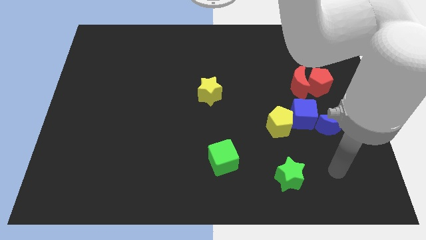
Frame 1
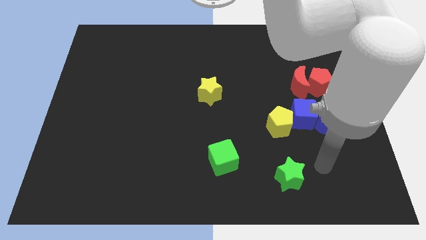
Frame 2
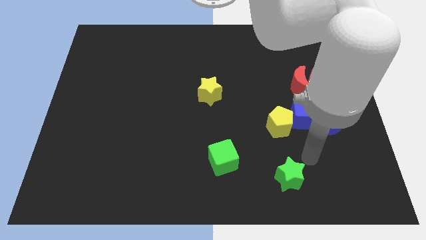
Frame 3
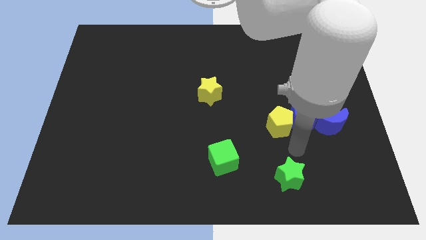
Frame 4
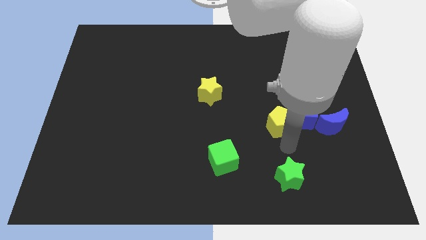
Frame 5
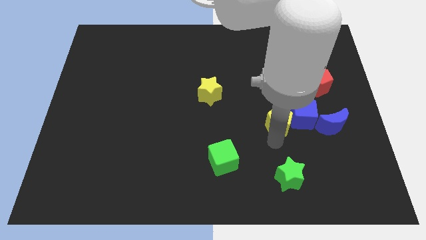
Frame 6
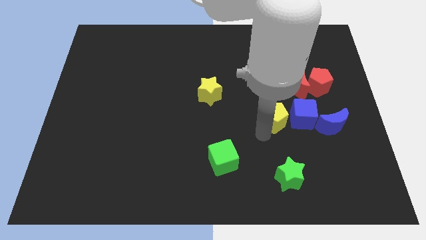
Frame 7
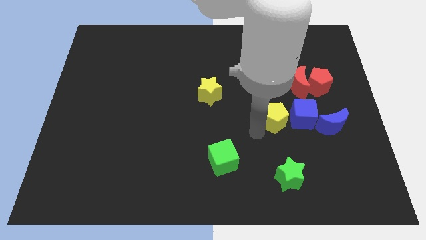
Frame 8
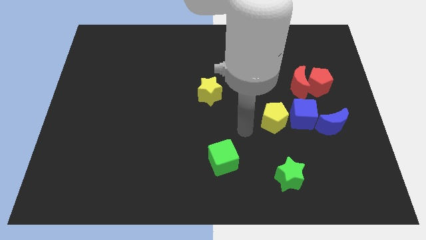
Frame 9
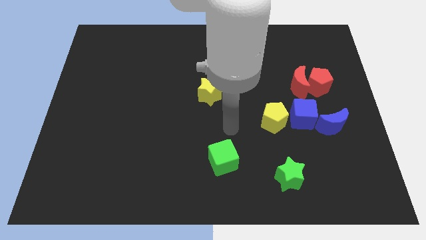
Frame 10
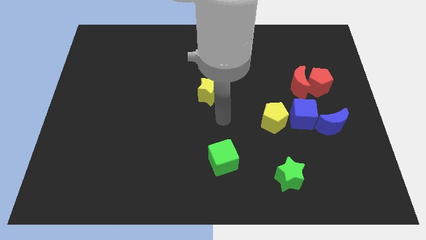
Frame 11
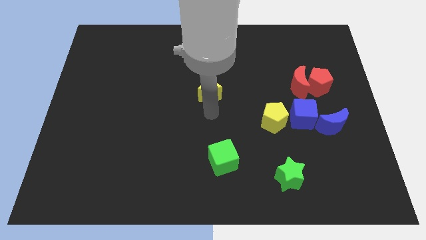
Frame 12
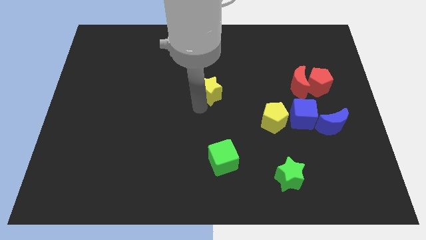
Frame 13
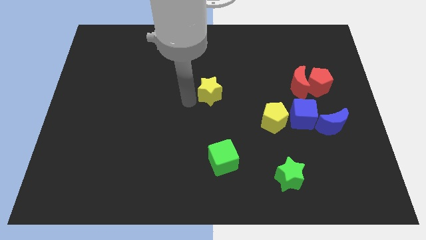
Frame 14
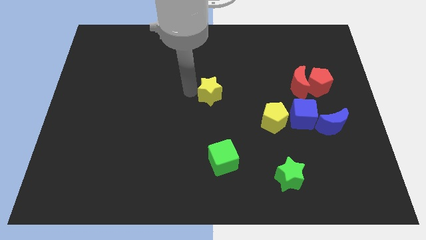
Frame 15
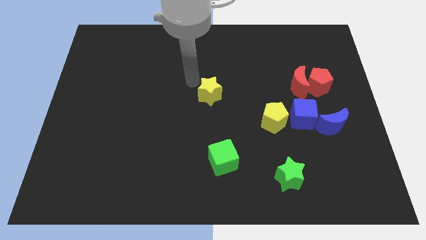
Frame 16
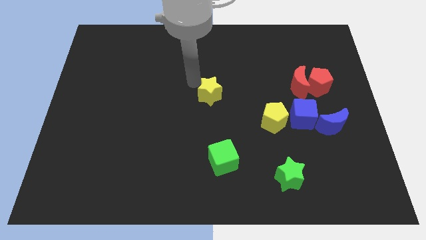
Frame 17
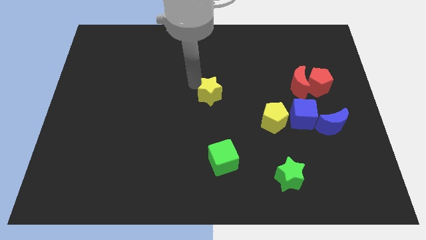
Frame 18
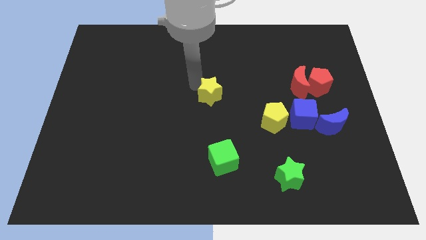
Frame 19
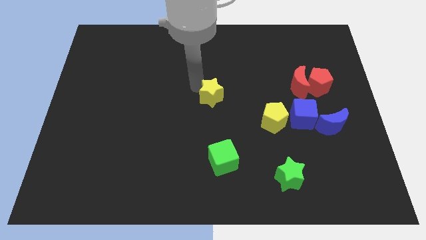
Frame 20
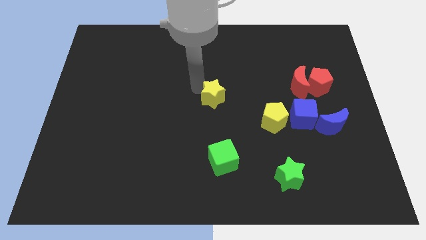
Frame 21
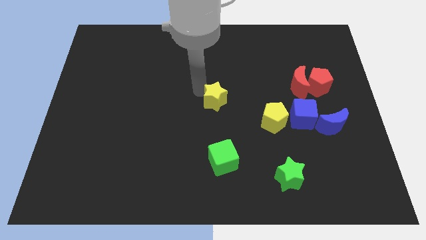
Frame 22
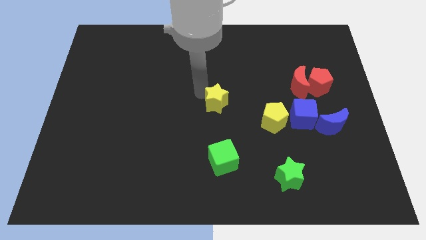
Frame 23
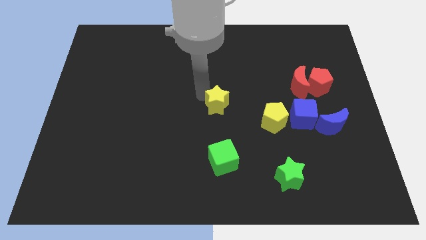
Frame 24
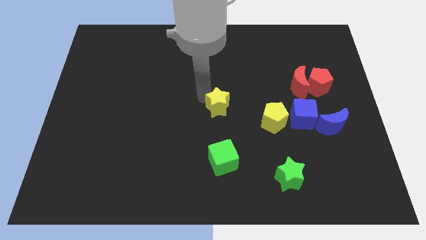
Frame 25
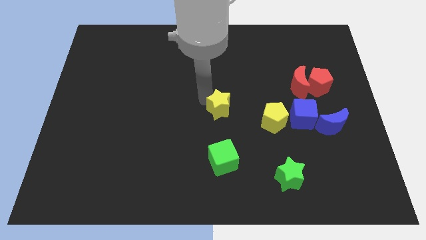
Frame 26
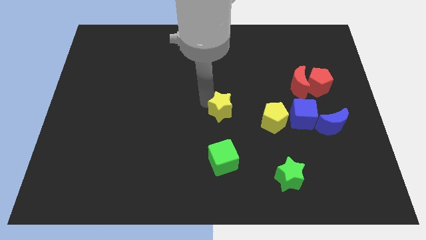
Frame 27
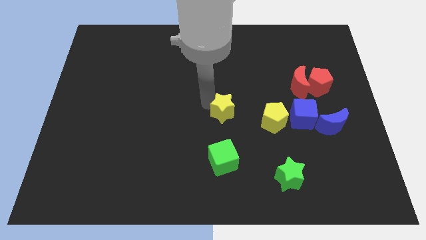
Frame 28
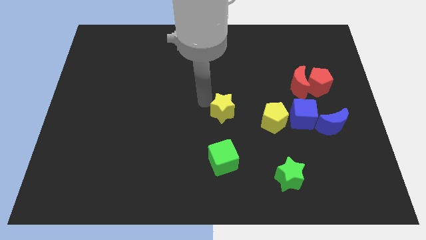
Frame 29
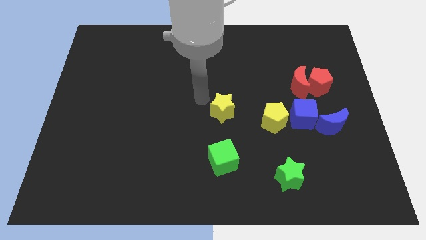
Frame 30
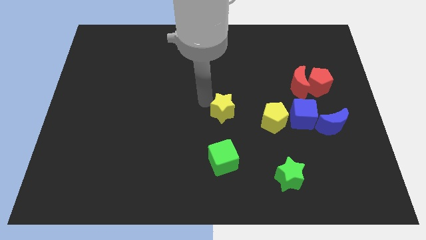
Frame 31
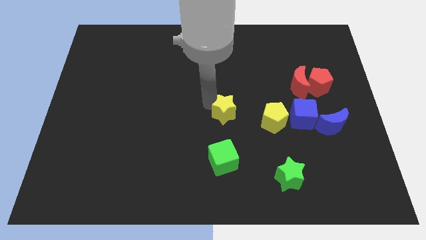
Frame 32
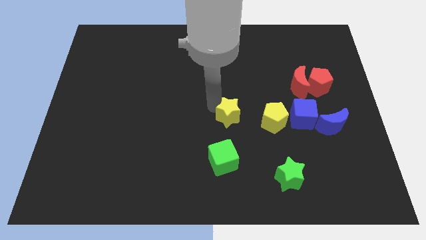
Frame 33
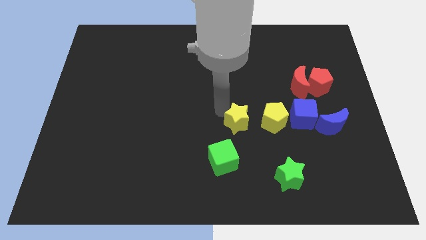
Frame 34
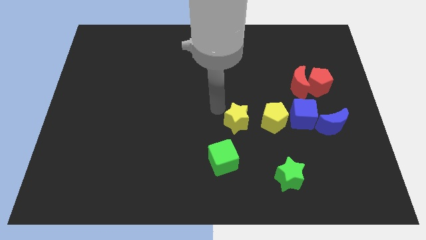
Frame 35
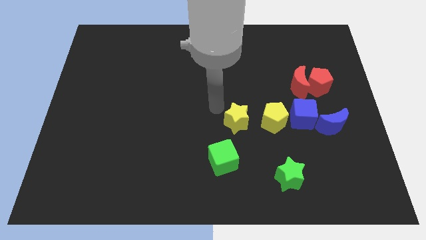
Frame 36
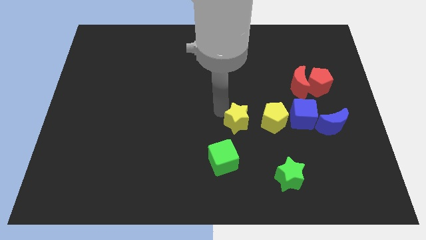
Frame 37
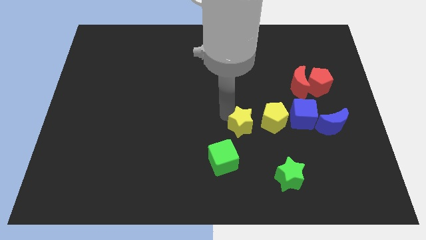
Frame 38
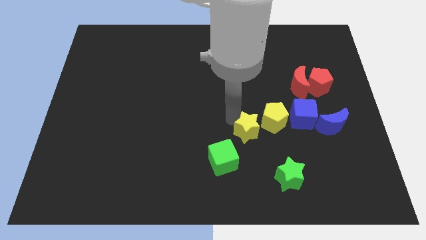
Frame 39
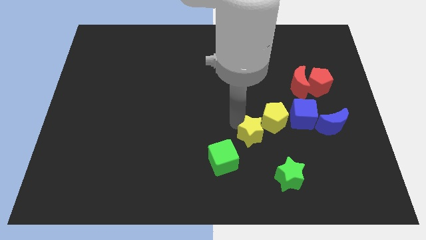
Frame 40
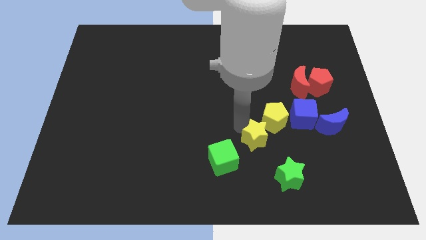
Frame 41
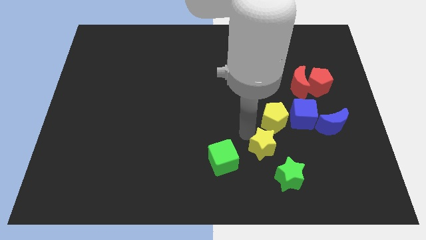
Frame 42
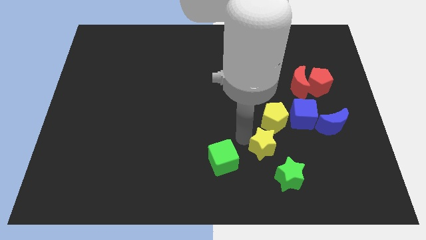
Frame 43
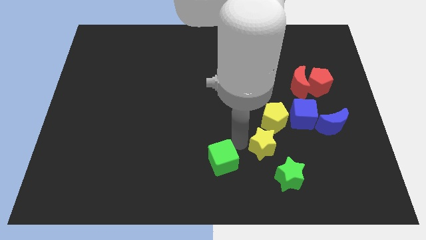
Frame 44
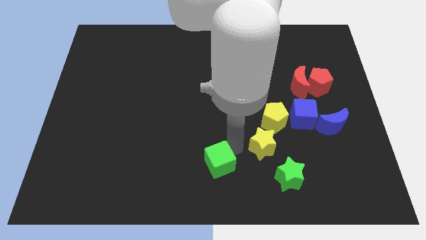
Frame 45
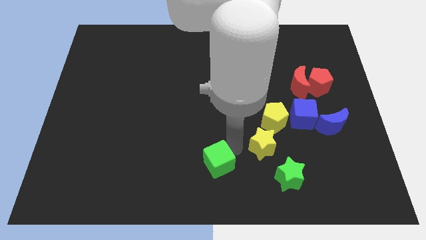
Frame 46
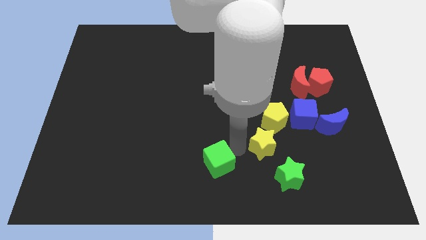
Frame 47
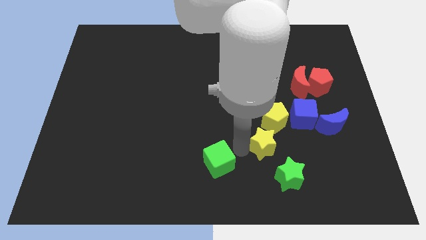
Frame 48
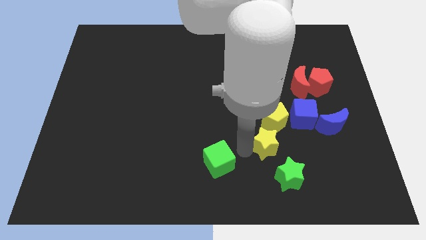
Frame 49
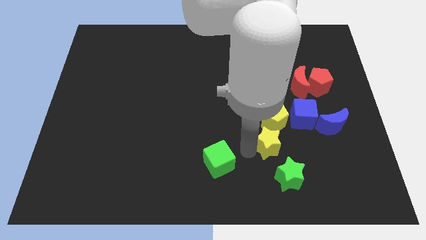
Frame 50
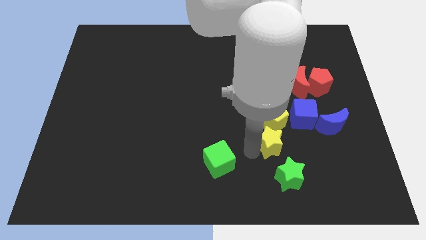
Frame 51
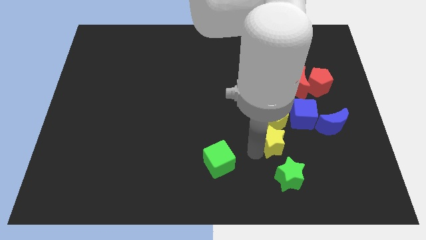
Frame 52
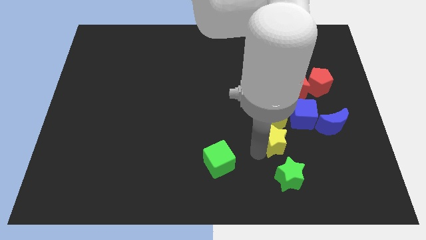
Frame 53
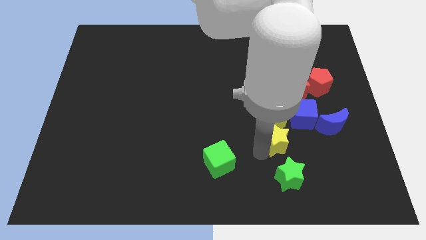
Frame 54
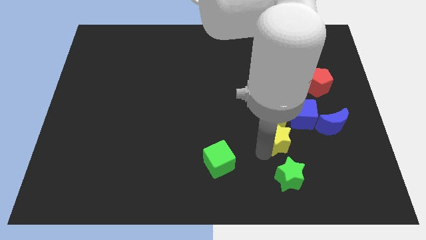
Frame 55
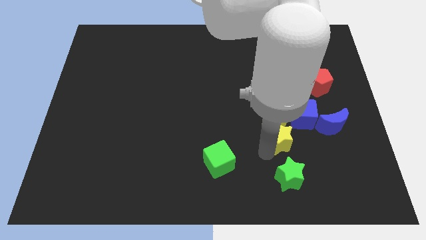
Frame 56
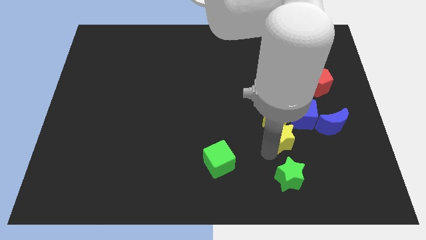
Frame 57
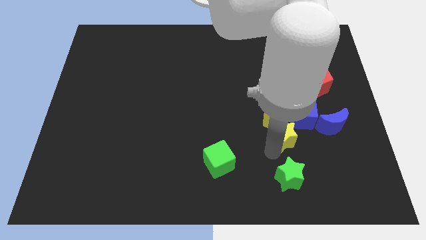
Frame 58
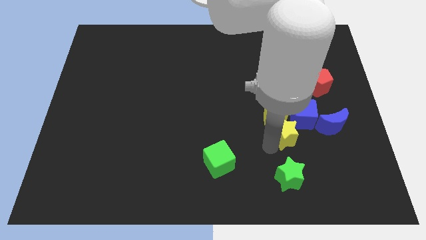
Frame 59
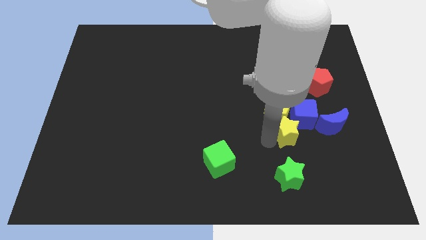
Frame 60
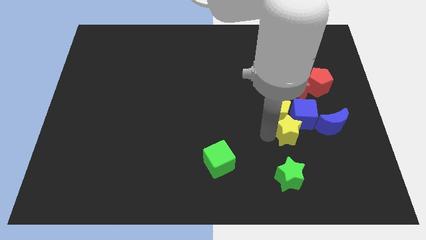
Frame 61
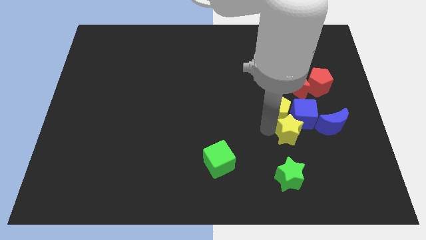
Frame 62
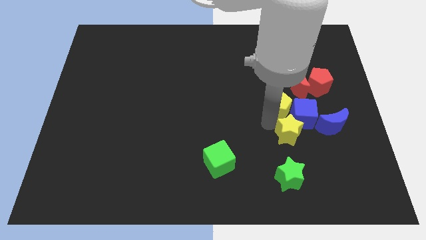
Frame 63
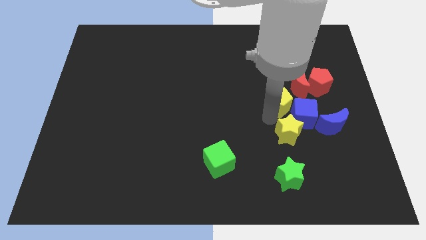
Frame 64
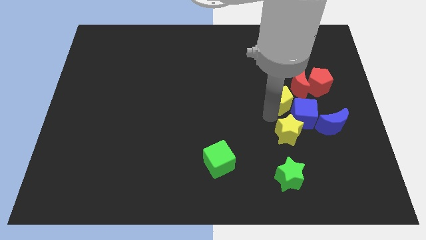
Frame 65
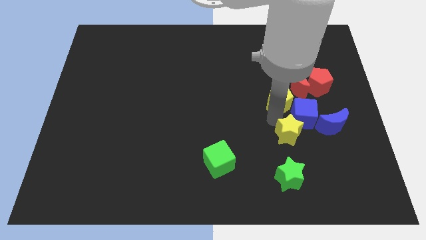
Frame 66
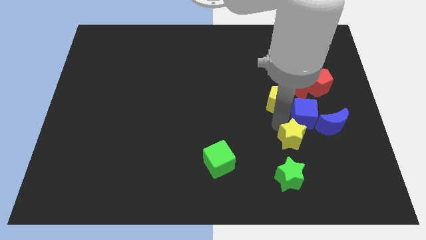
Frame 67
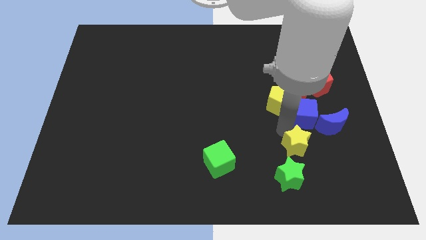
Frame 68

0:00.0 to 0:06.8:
put the yellow star to the top right side of the green star
